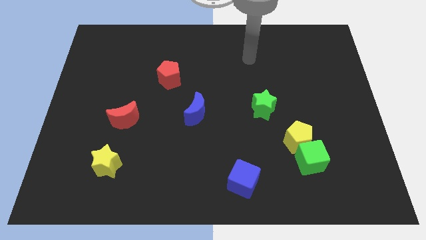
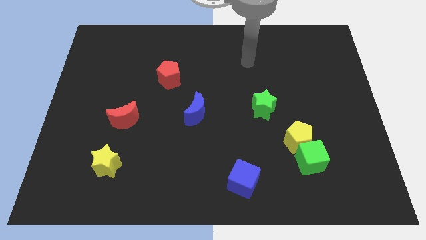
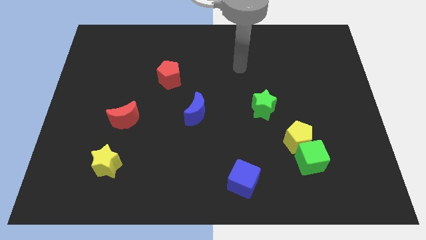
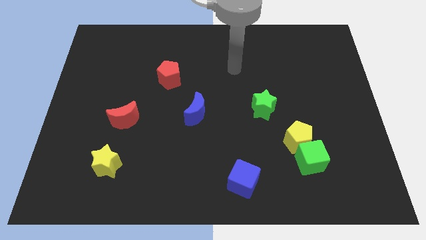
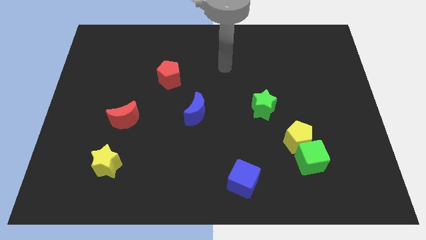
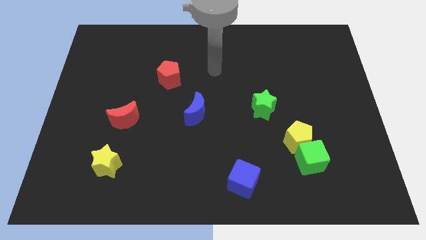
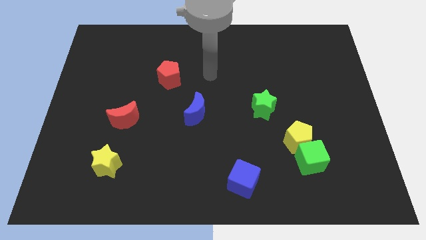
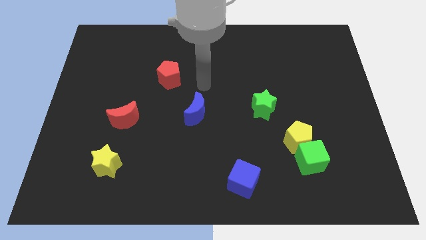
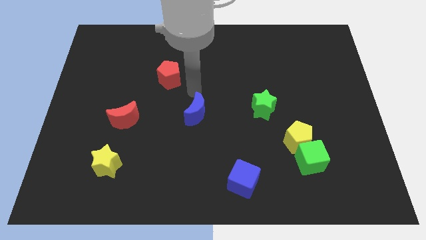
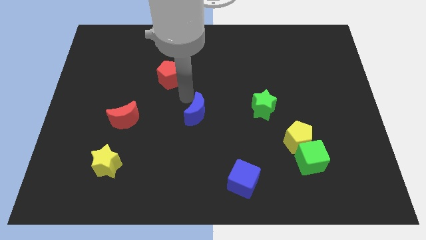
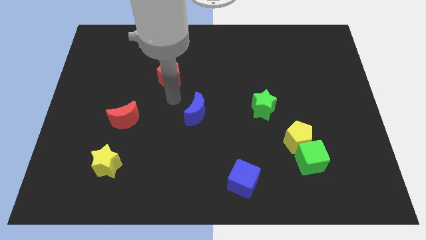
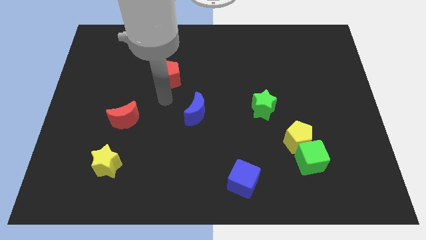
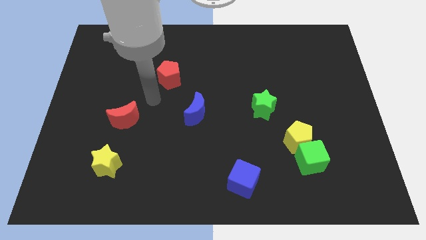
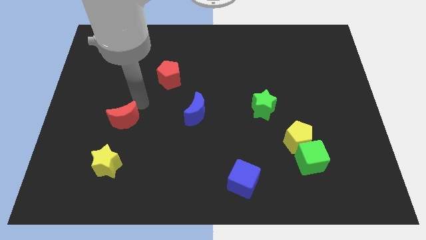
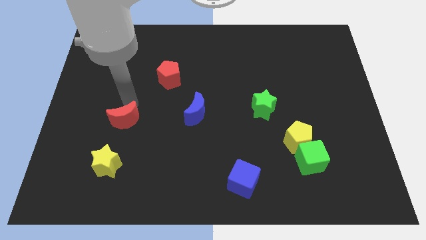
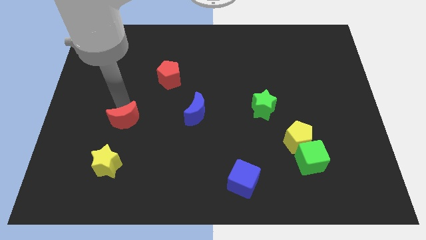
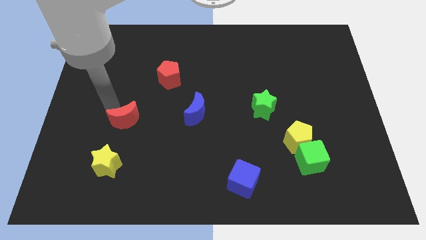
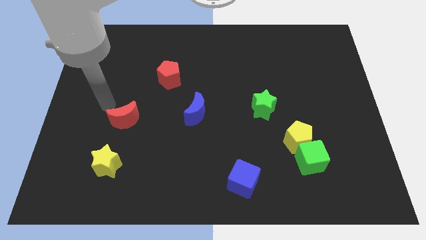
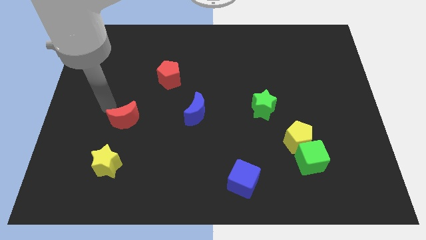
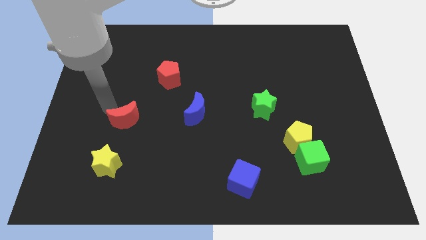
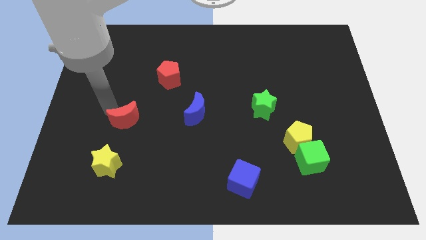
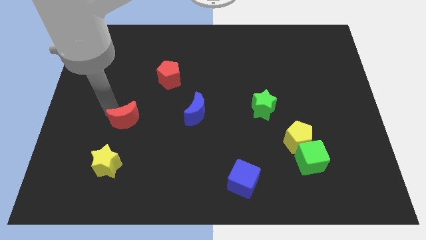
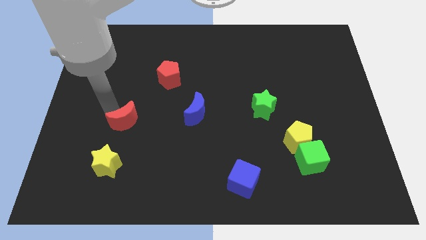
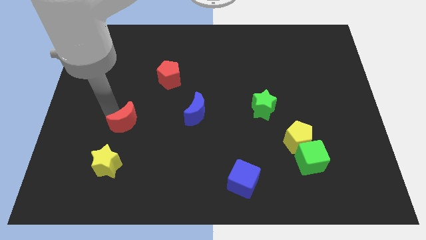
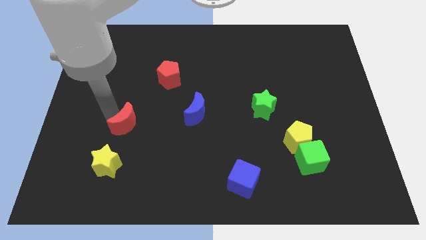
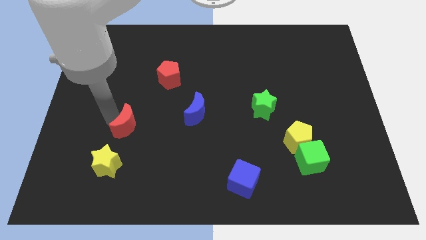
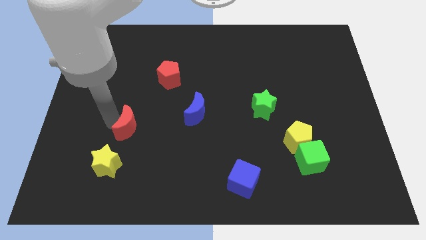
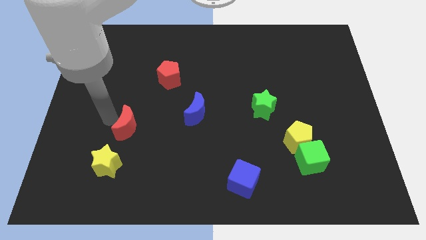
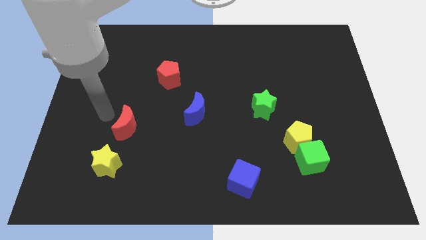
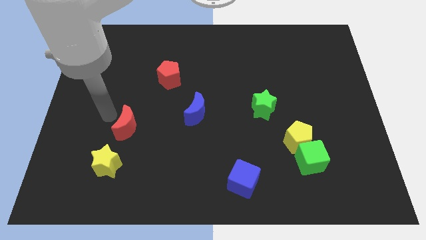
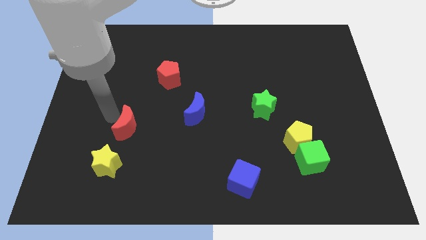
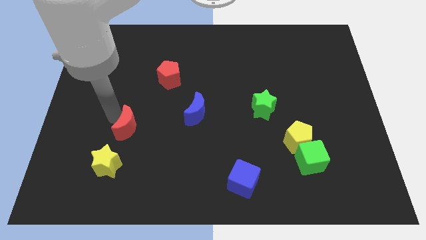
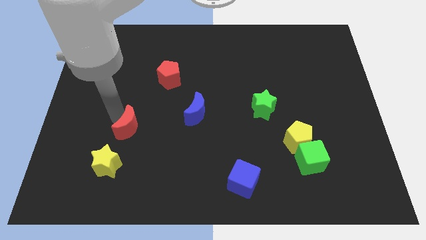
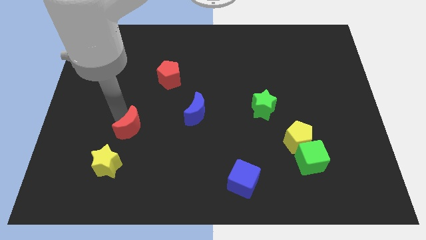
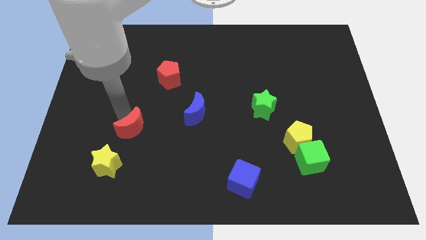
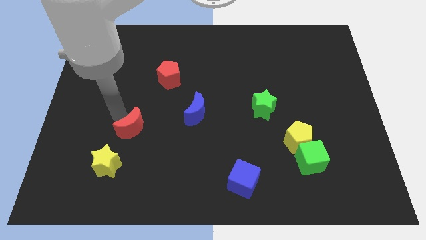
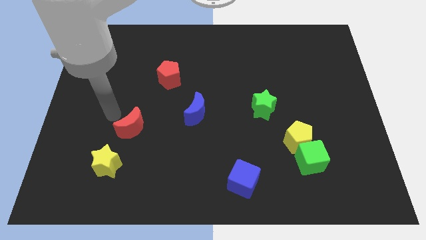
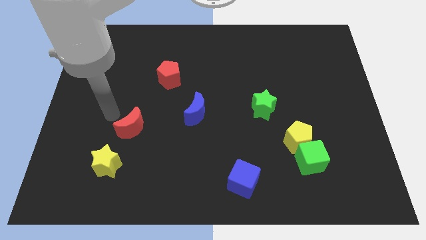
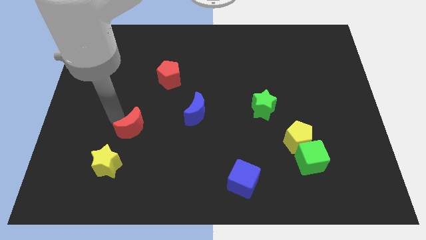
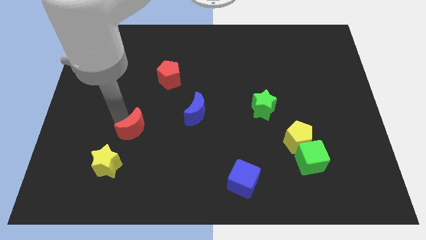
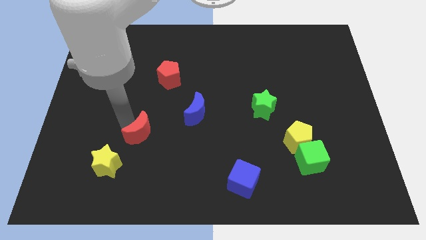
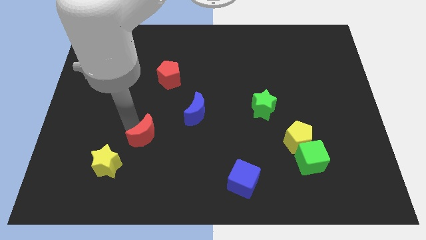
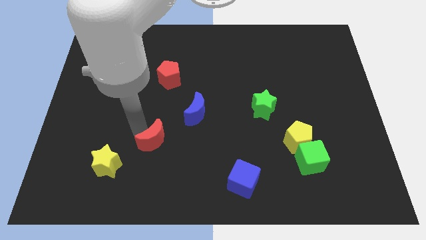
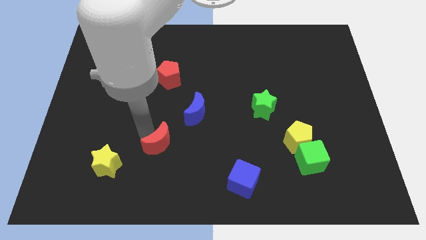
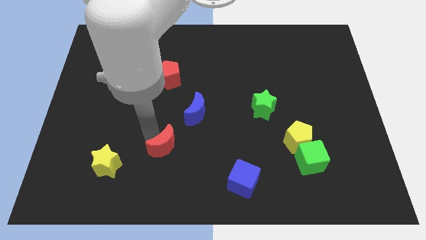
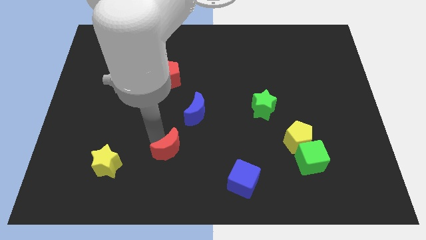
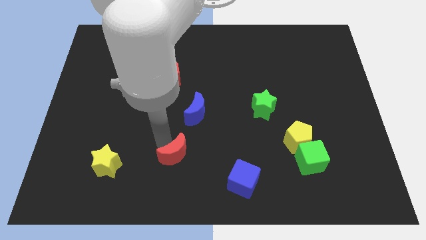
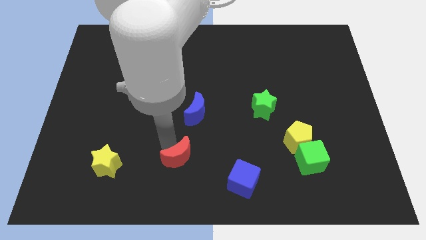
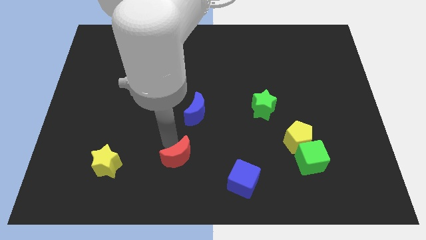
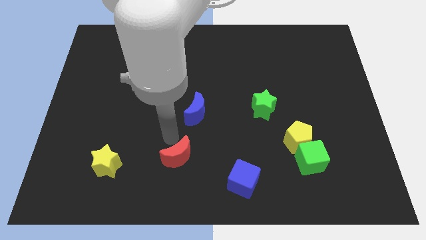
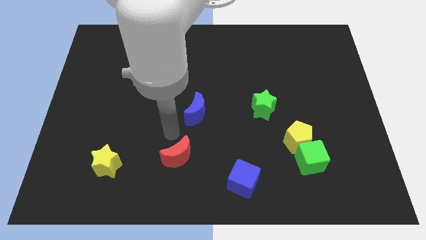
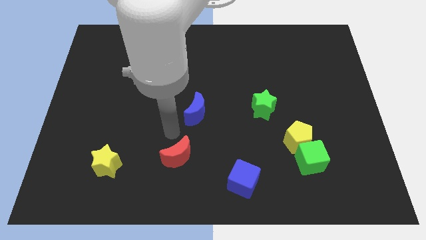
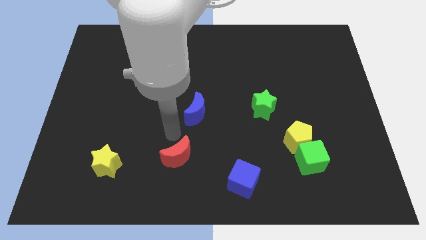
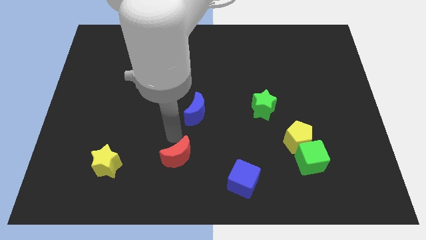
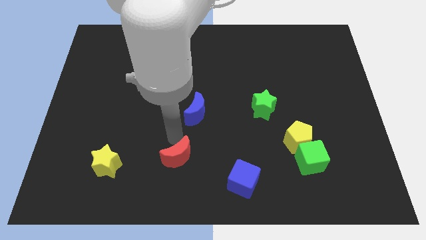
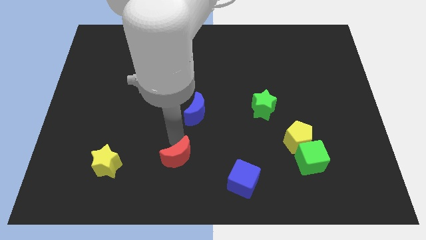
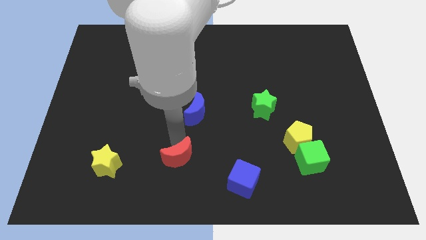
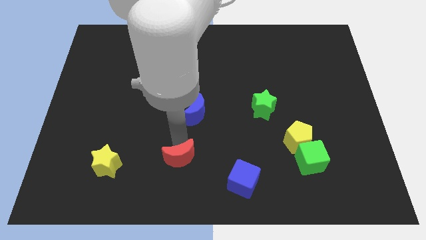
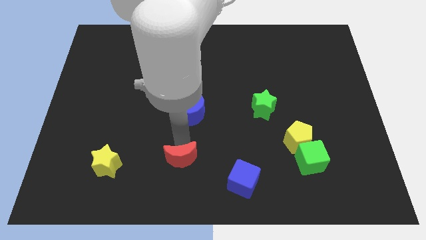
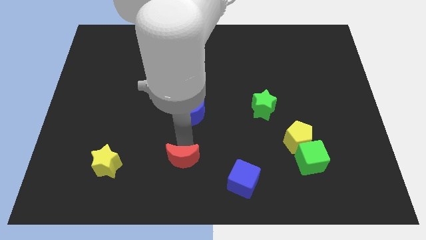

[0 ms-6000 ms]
put the red moon to the bottom
